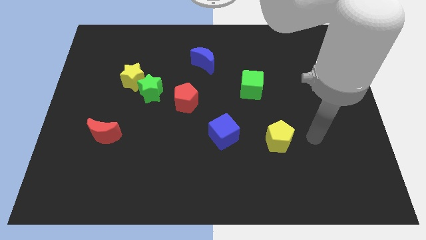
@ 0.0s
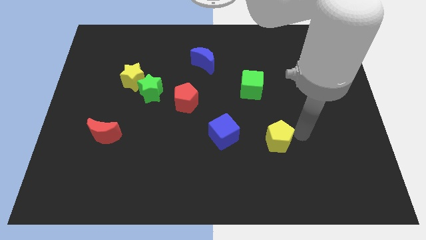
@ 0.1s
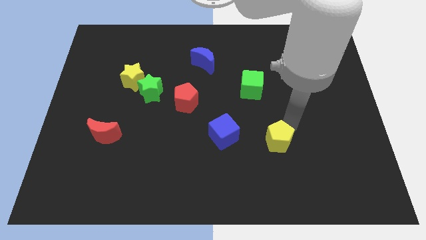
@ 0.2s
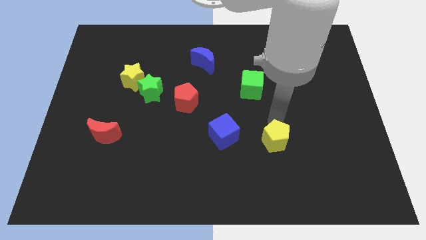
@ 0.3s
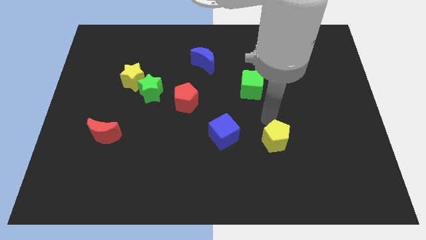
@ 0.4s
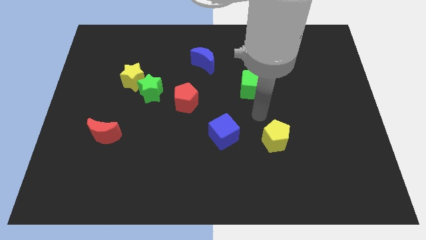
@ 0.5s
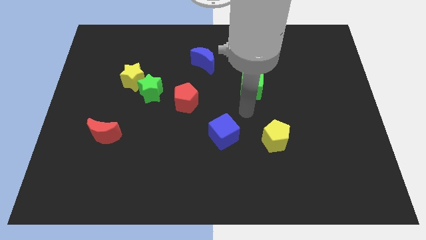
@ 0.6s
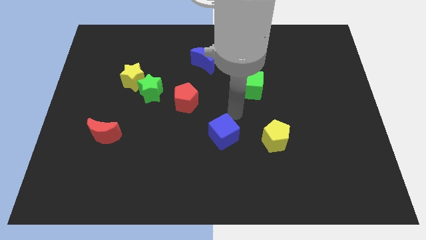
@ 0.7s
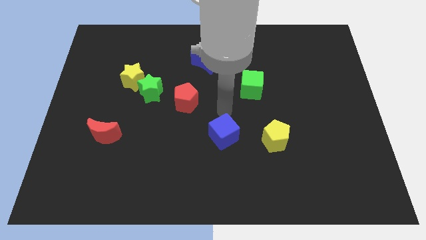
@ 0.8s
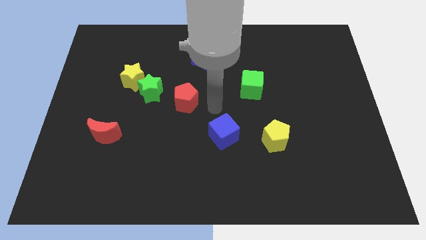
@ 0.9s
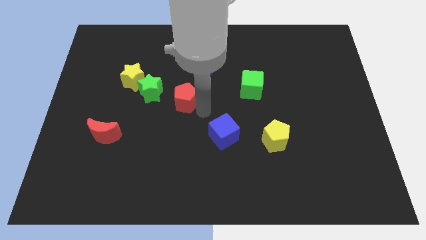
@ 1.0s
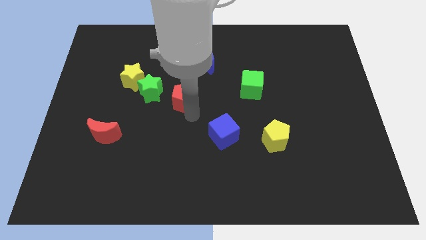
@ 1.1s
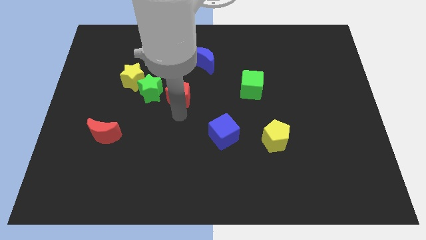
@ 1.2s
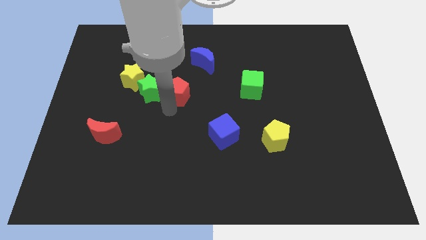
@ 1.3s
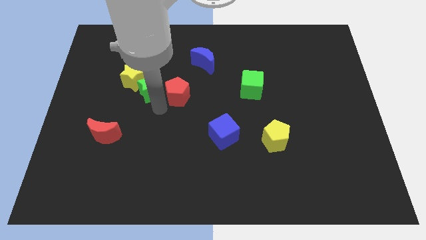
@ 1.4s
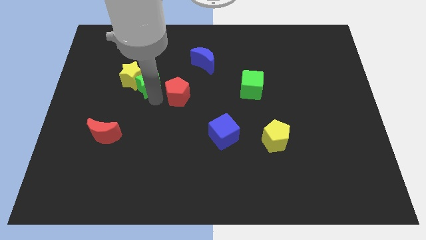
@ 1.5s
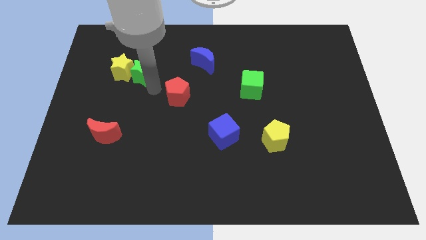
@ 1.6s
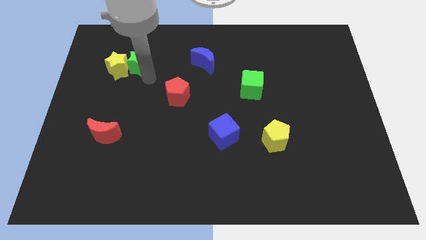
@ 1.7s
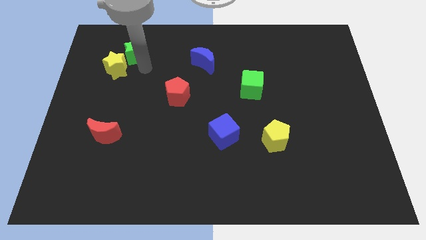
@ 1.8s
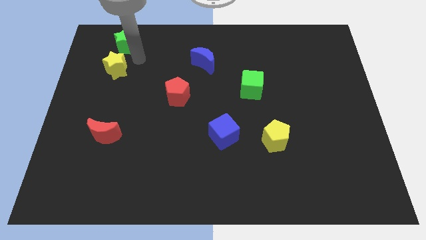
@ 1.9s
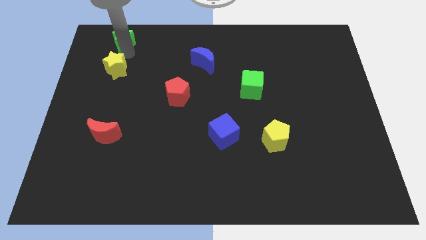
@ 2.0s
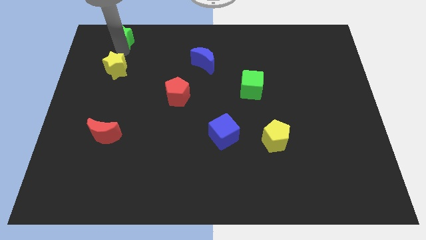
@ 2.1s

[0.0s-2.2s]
pull the yellow star apart from the green star

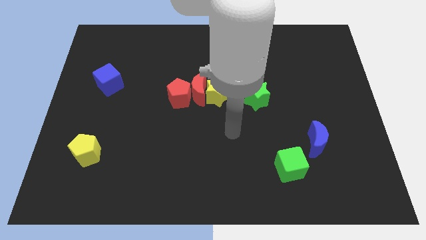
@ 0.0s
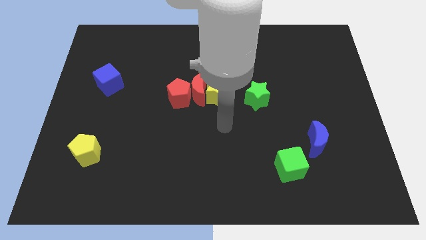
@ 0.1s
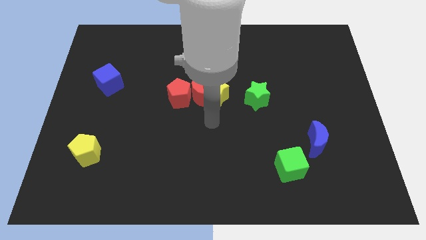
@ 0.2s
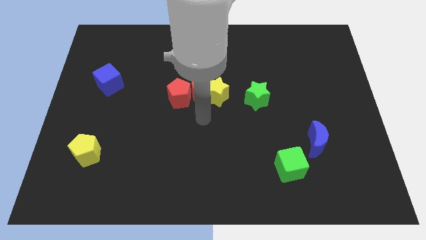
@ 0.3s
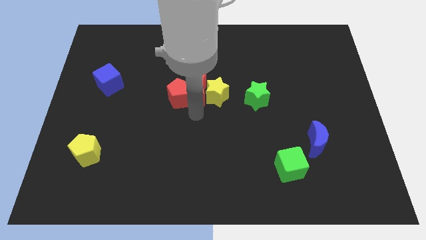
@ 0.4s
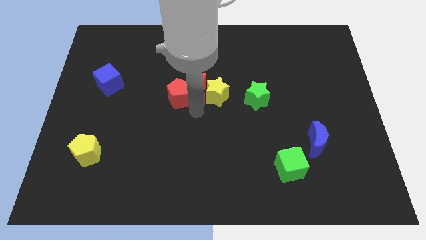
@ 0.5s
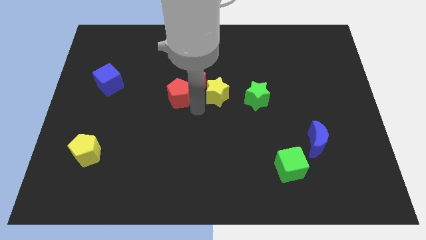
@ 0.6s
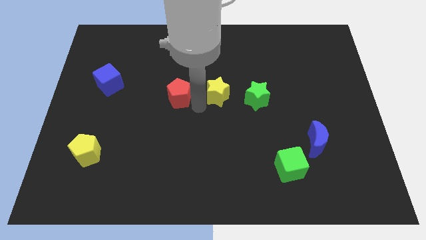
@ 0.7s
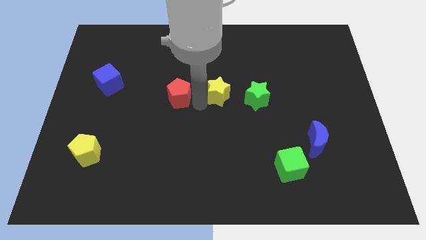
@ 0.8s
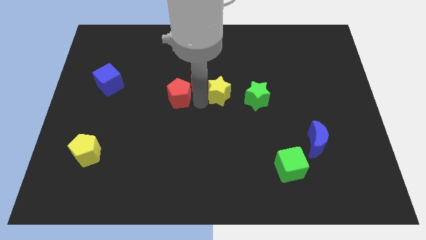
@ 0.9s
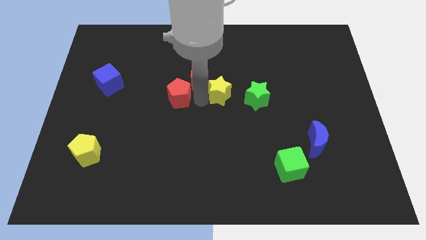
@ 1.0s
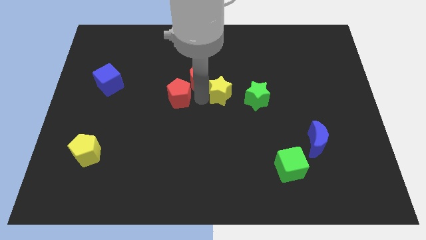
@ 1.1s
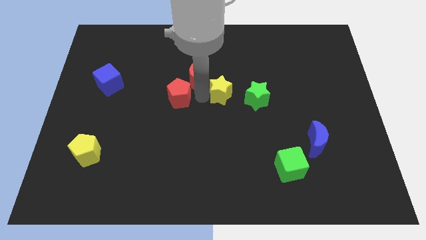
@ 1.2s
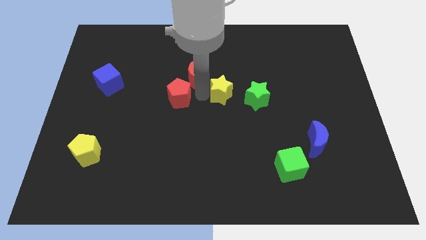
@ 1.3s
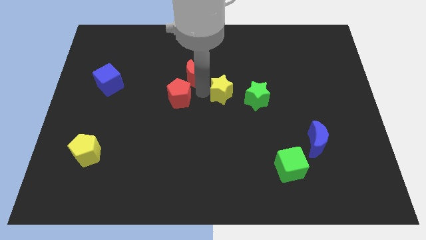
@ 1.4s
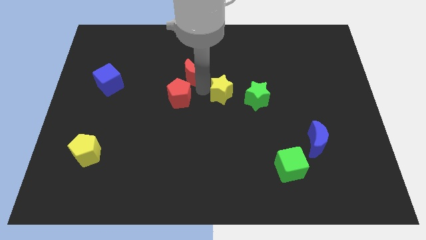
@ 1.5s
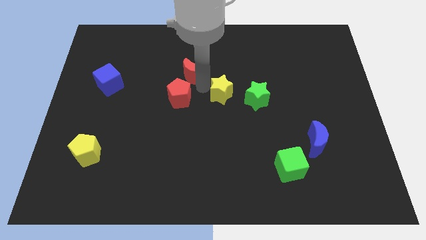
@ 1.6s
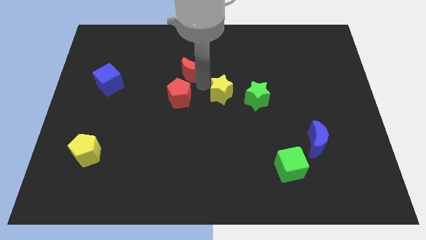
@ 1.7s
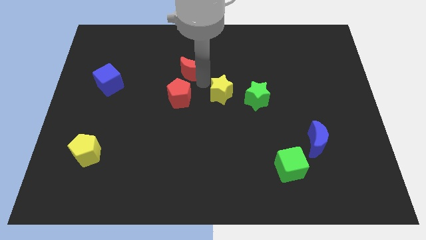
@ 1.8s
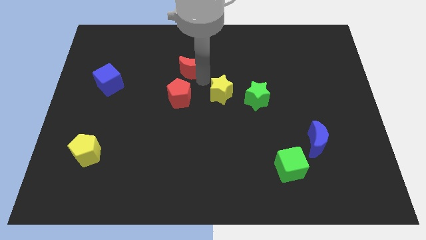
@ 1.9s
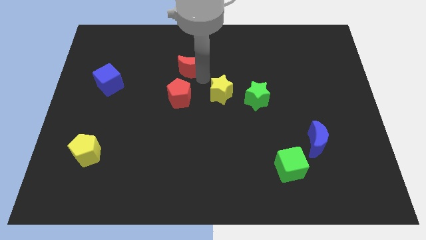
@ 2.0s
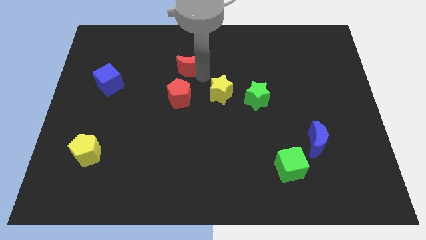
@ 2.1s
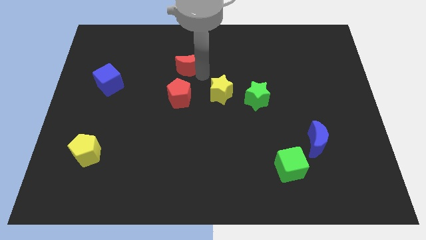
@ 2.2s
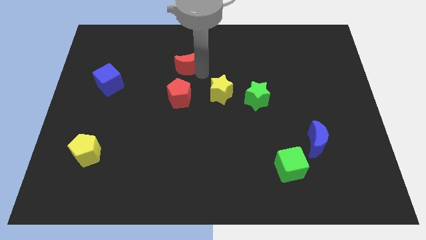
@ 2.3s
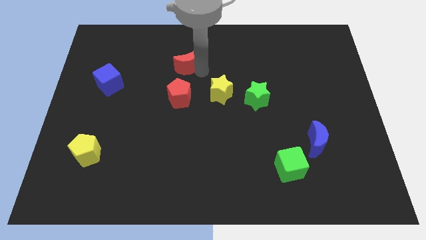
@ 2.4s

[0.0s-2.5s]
move the red moon away from the yellow star and red pentagon

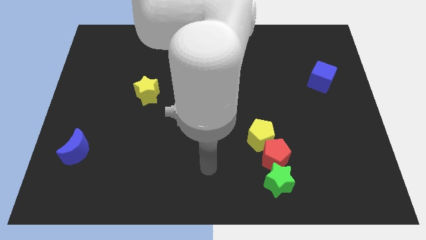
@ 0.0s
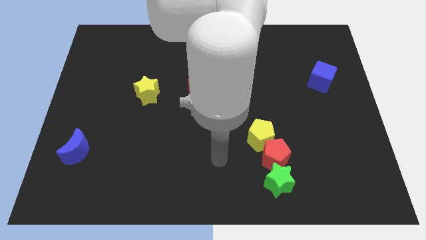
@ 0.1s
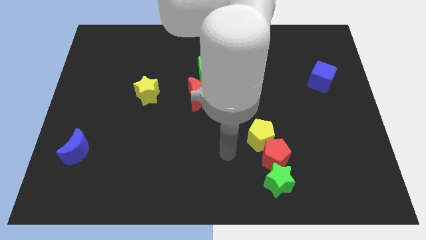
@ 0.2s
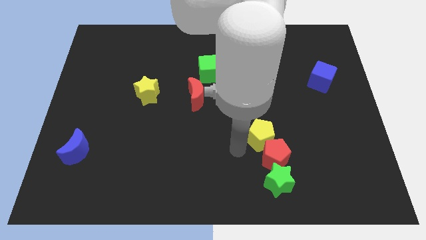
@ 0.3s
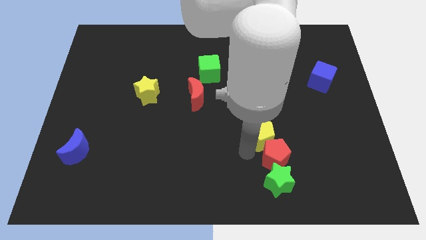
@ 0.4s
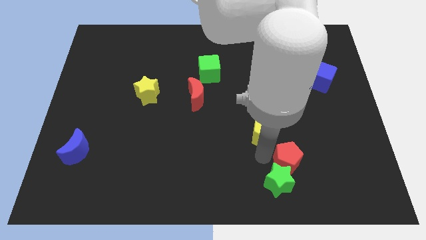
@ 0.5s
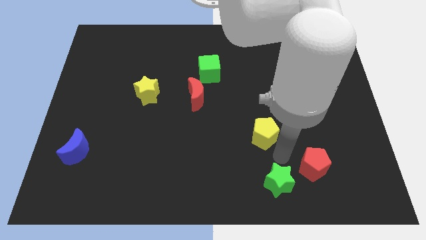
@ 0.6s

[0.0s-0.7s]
move the yellow pentagon away from the red pentagon
